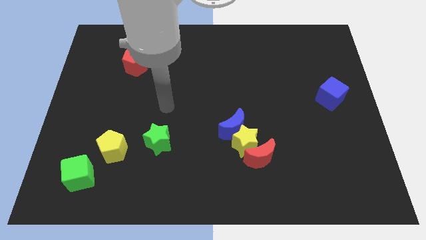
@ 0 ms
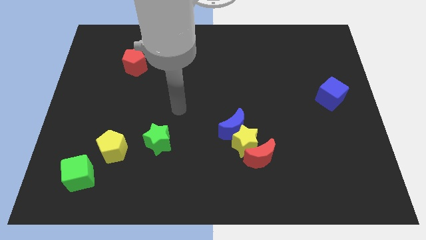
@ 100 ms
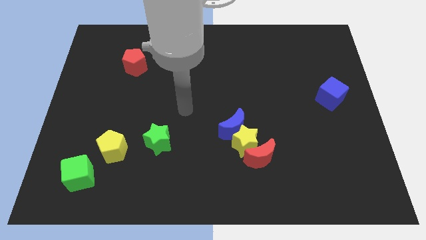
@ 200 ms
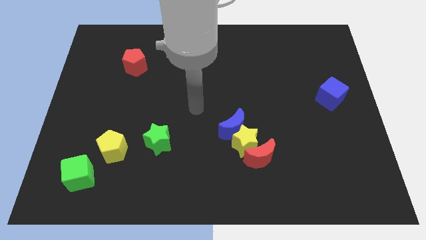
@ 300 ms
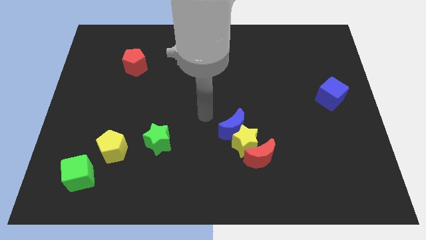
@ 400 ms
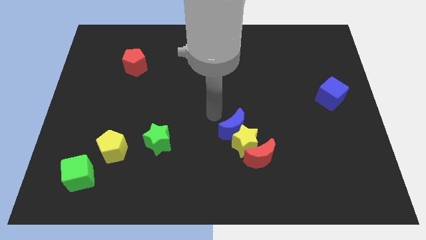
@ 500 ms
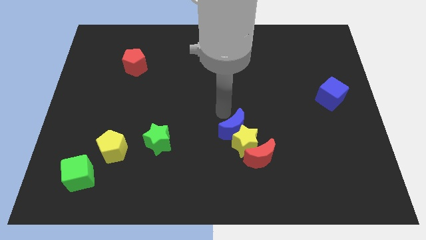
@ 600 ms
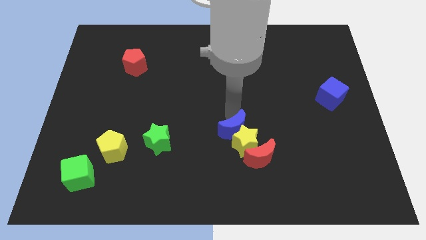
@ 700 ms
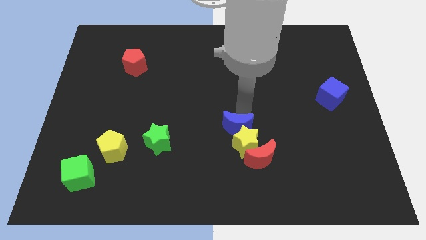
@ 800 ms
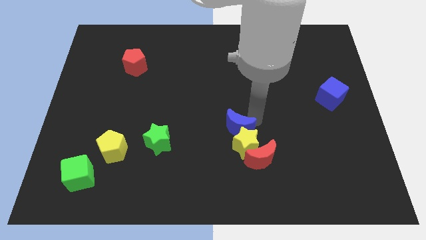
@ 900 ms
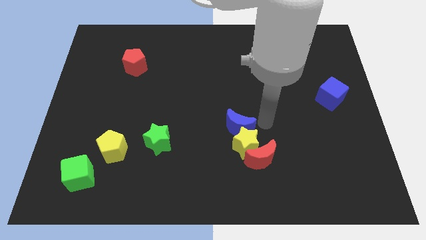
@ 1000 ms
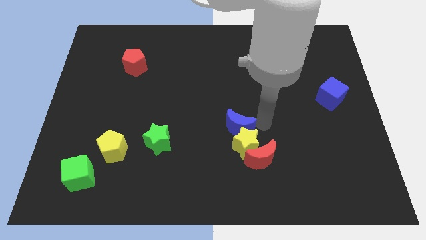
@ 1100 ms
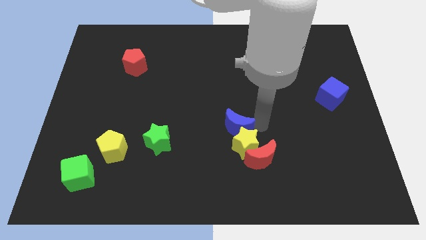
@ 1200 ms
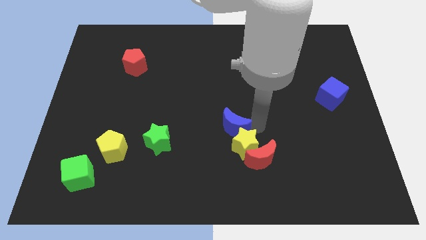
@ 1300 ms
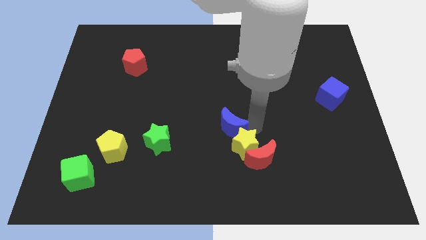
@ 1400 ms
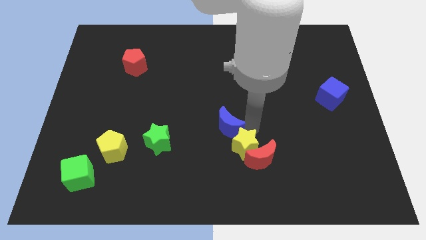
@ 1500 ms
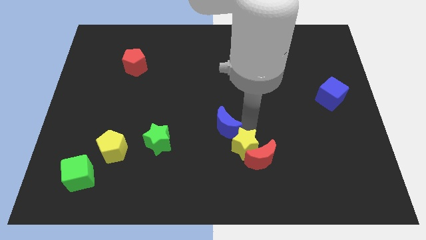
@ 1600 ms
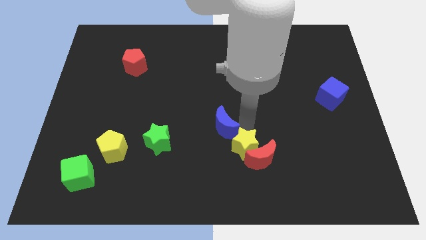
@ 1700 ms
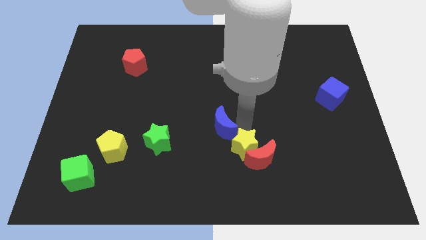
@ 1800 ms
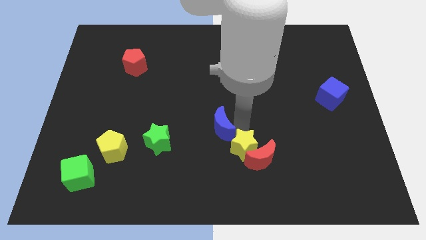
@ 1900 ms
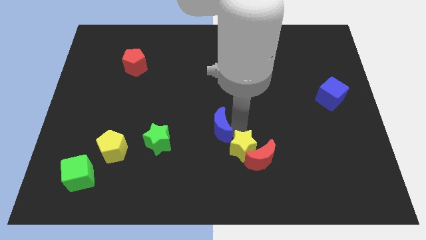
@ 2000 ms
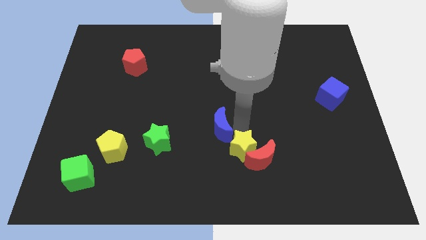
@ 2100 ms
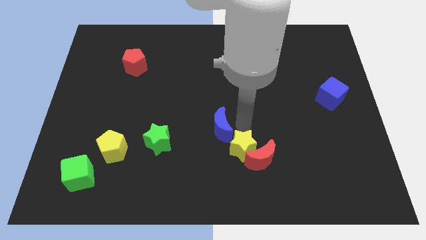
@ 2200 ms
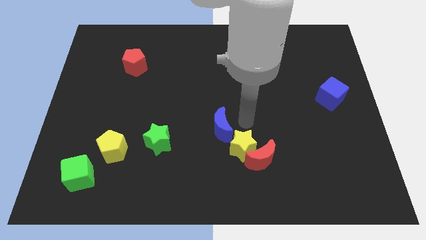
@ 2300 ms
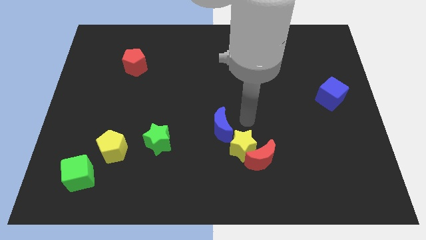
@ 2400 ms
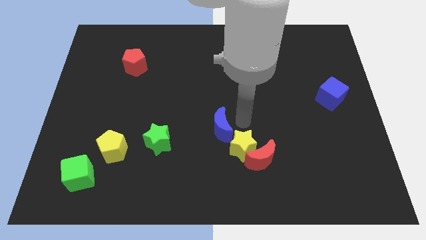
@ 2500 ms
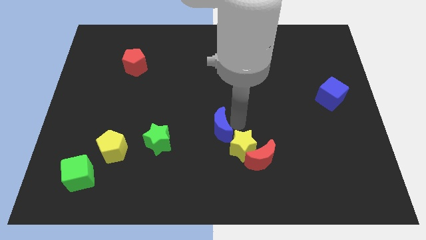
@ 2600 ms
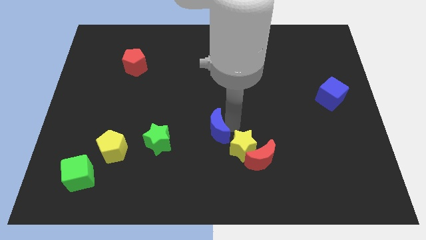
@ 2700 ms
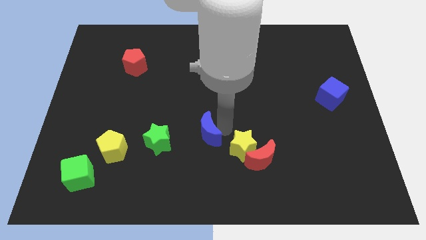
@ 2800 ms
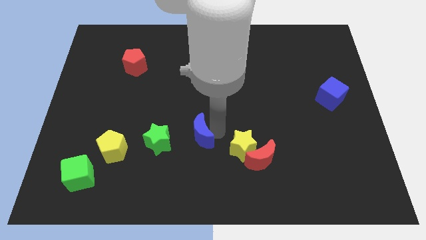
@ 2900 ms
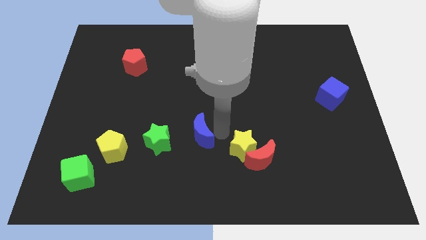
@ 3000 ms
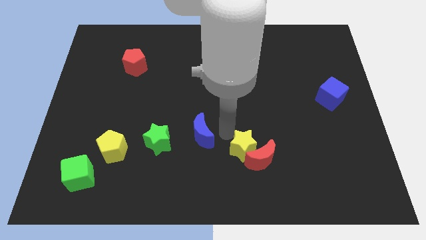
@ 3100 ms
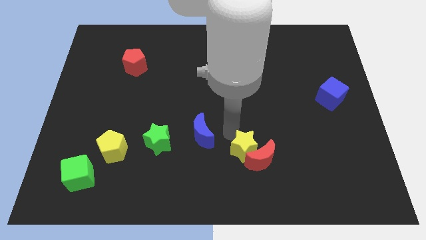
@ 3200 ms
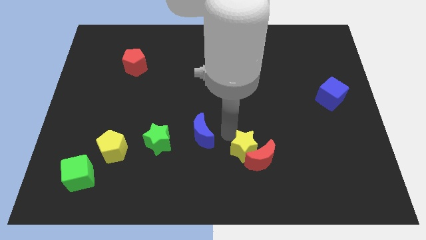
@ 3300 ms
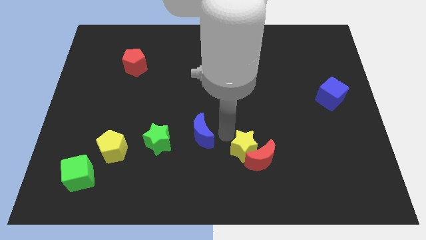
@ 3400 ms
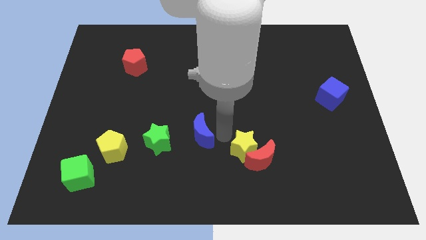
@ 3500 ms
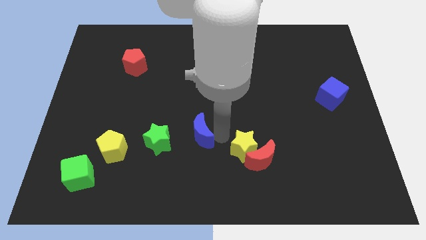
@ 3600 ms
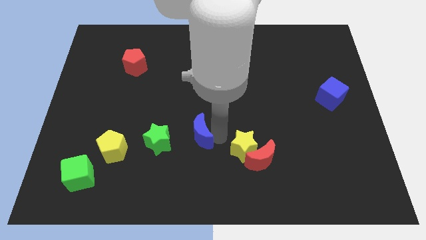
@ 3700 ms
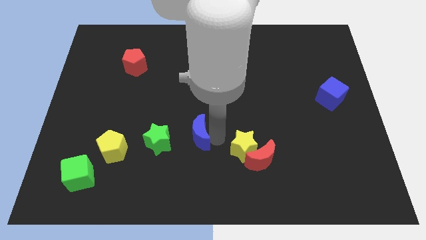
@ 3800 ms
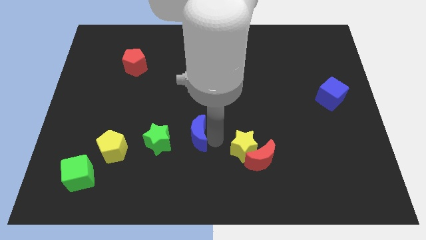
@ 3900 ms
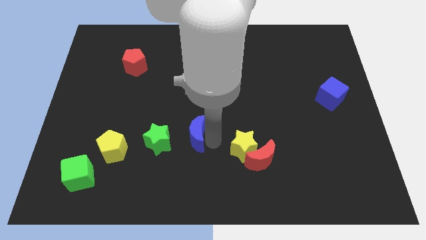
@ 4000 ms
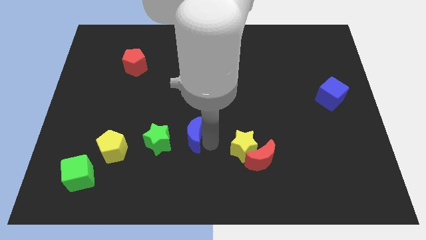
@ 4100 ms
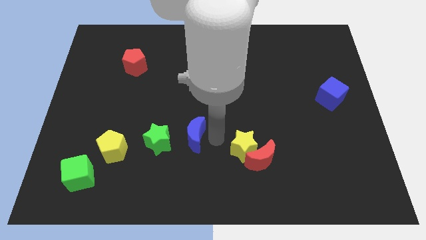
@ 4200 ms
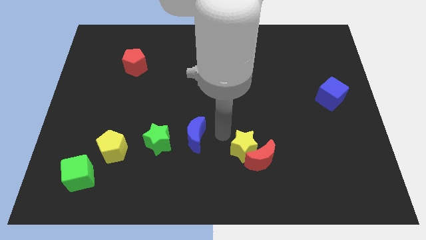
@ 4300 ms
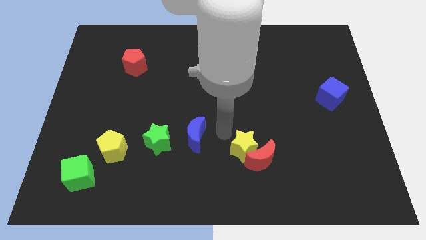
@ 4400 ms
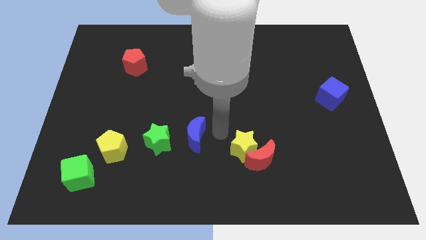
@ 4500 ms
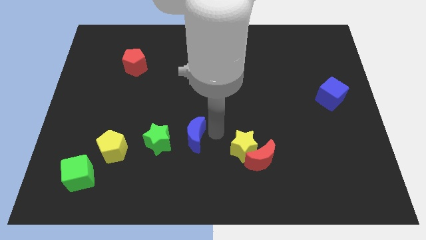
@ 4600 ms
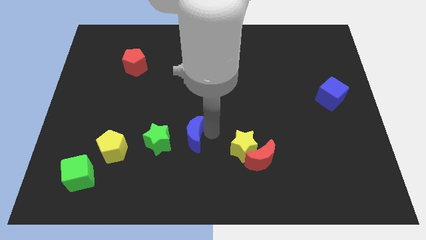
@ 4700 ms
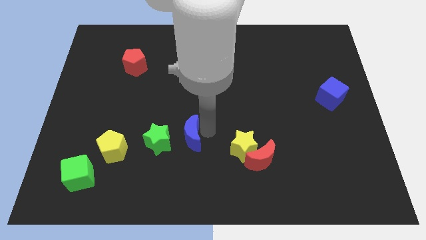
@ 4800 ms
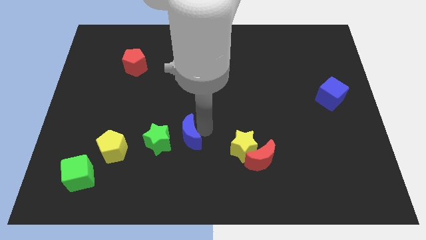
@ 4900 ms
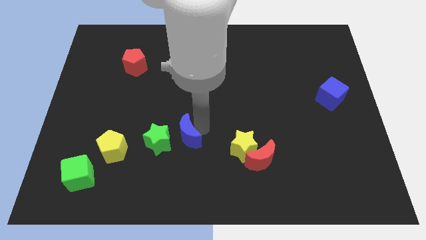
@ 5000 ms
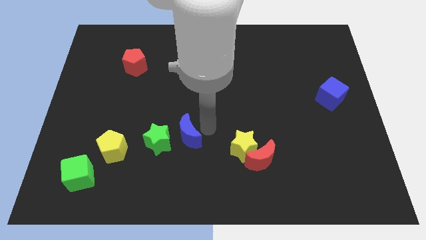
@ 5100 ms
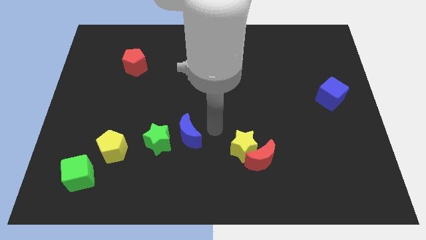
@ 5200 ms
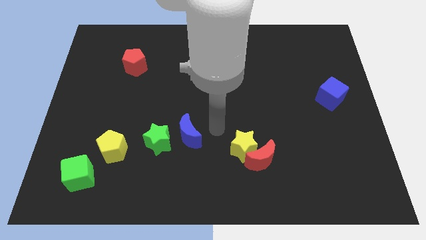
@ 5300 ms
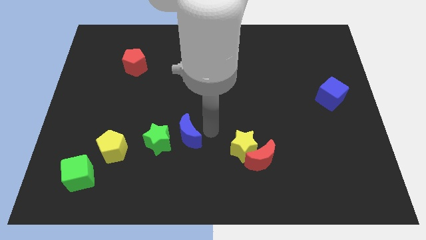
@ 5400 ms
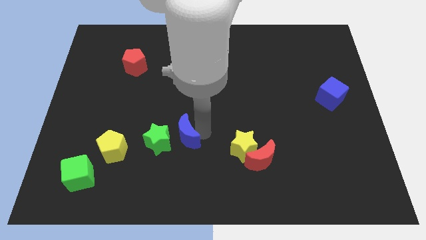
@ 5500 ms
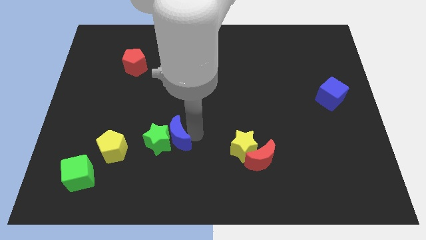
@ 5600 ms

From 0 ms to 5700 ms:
slide the blue moon close to the green star

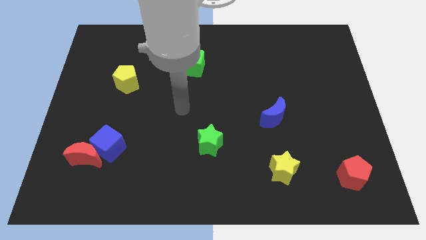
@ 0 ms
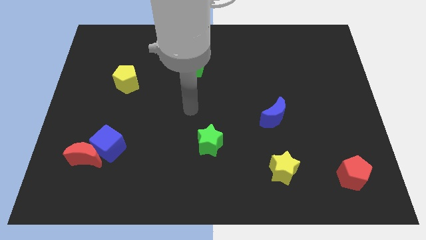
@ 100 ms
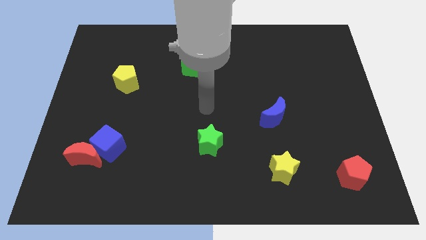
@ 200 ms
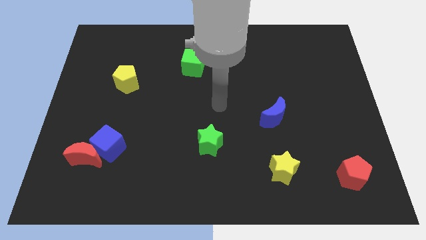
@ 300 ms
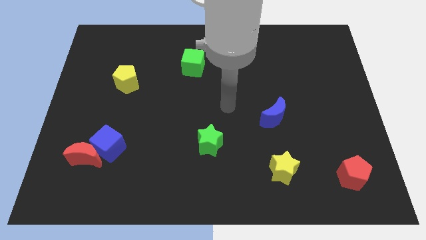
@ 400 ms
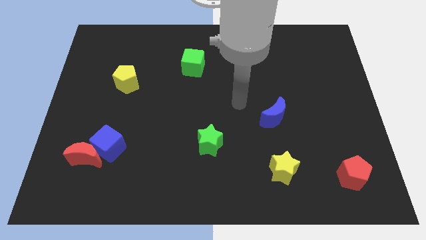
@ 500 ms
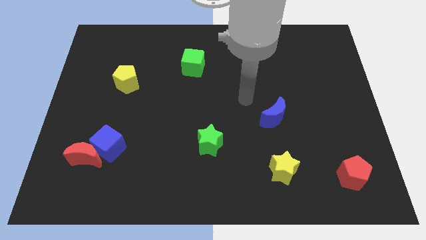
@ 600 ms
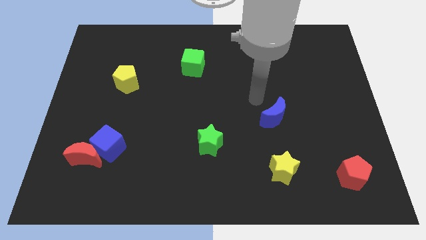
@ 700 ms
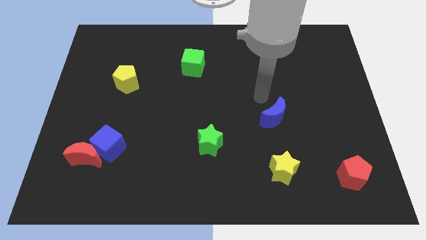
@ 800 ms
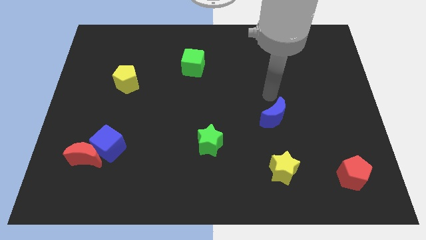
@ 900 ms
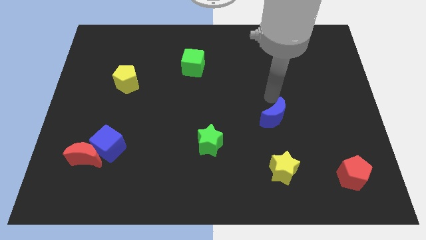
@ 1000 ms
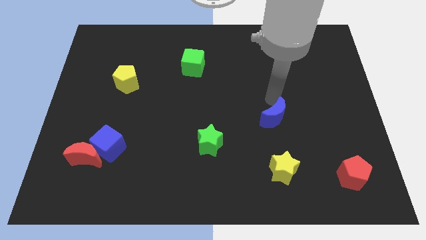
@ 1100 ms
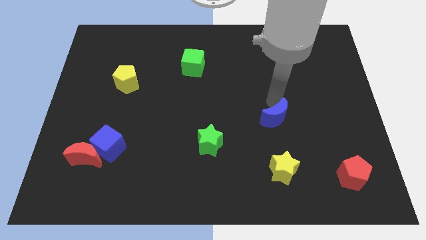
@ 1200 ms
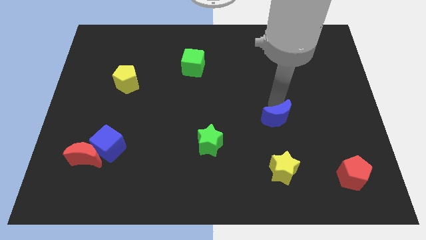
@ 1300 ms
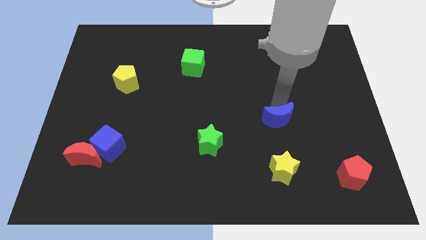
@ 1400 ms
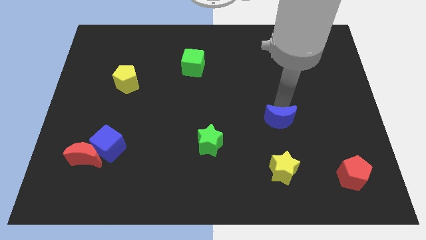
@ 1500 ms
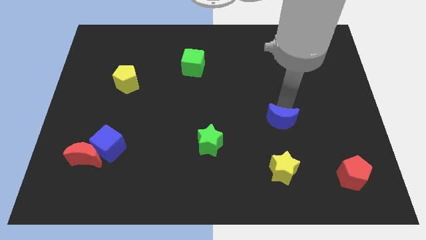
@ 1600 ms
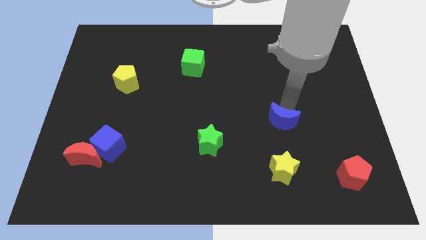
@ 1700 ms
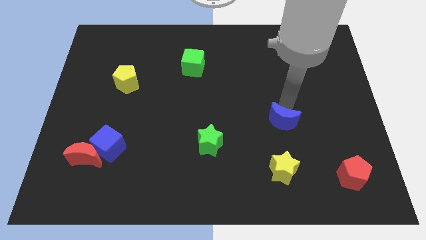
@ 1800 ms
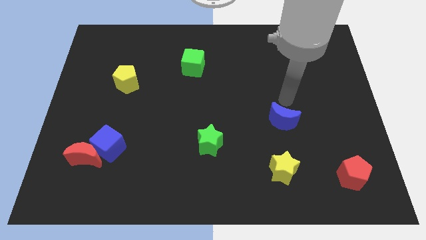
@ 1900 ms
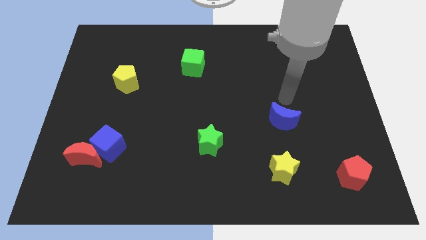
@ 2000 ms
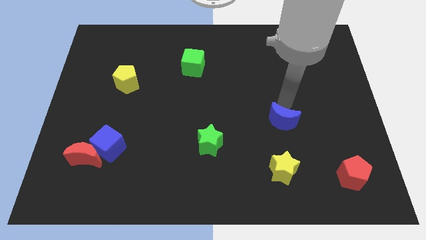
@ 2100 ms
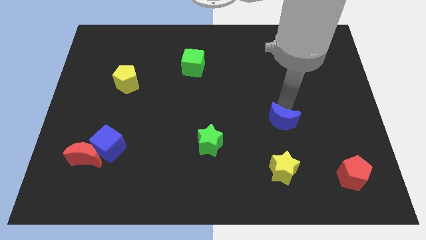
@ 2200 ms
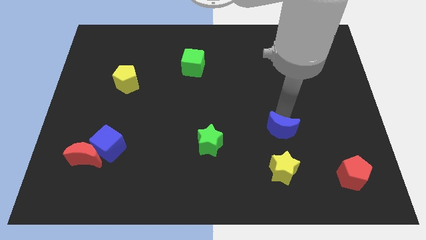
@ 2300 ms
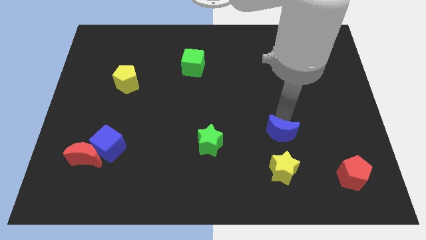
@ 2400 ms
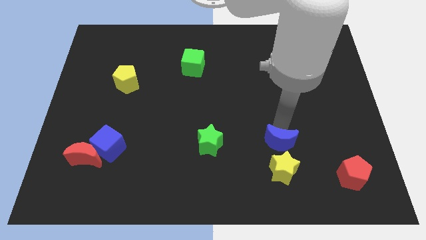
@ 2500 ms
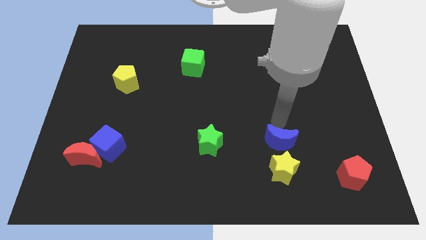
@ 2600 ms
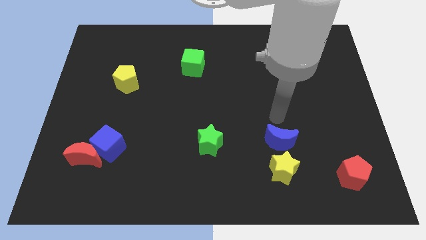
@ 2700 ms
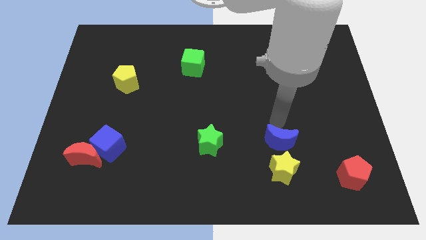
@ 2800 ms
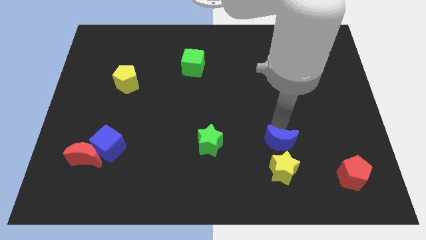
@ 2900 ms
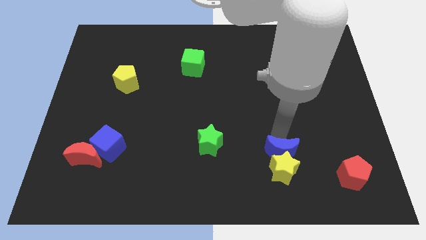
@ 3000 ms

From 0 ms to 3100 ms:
put the blue moon next to the yellow star
